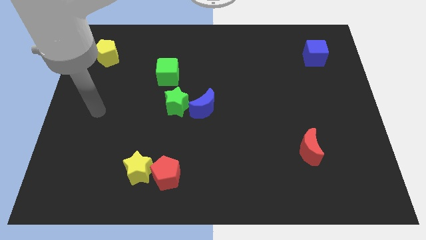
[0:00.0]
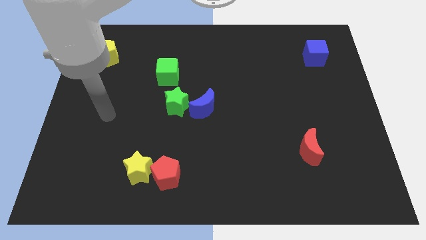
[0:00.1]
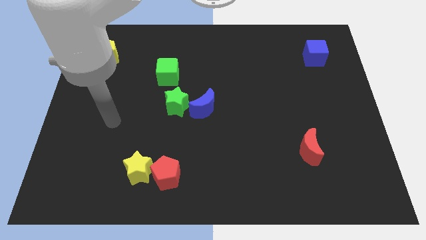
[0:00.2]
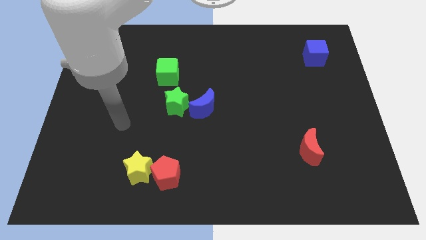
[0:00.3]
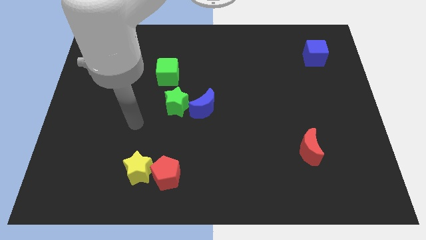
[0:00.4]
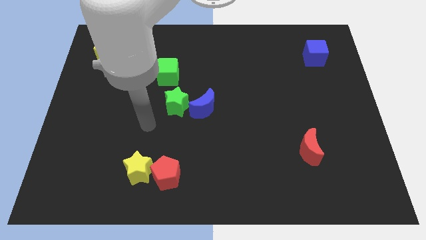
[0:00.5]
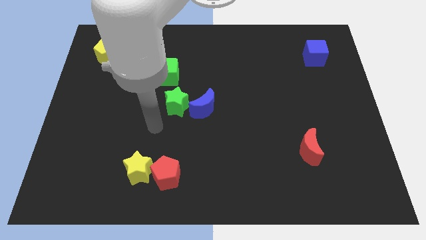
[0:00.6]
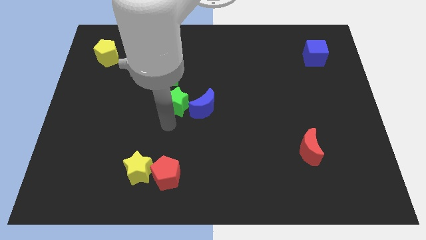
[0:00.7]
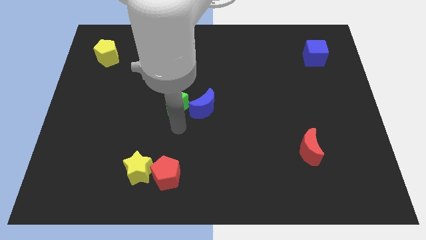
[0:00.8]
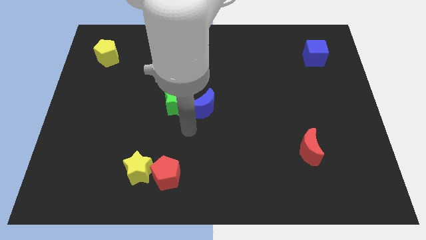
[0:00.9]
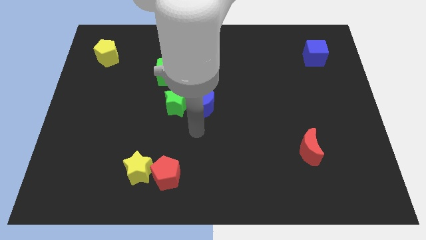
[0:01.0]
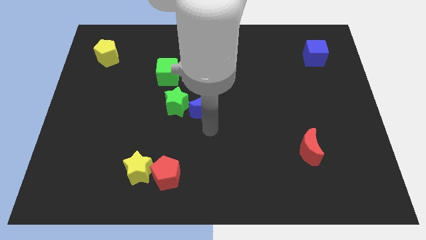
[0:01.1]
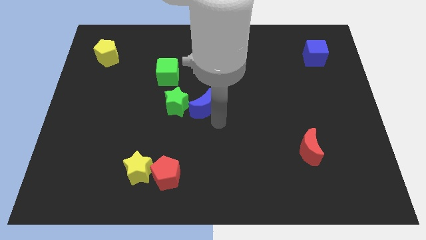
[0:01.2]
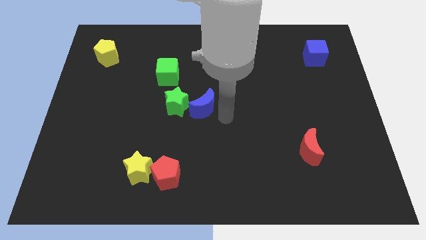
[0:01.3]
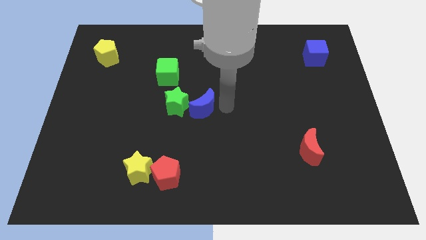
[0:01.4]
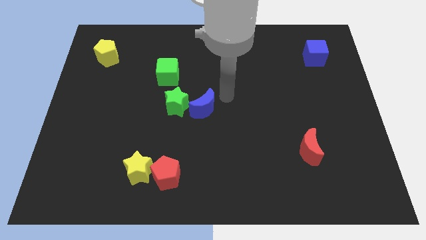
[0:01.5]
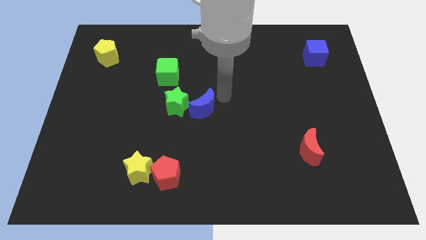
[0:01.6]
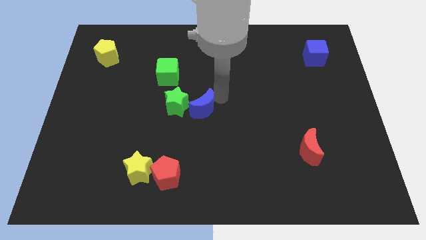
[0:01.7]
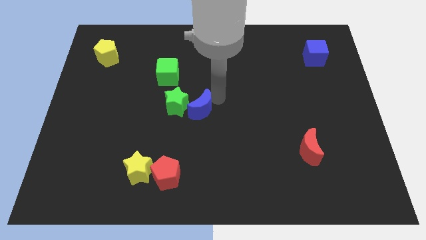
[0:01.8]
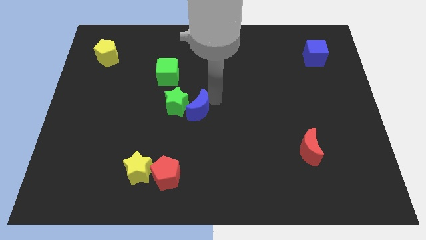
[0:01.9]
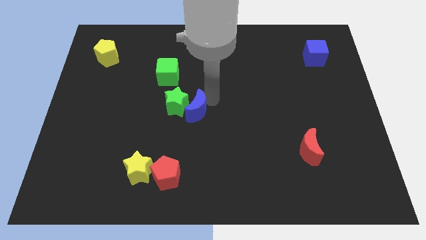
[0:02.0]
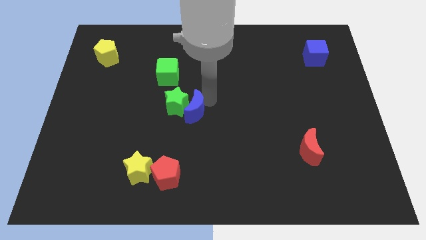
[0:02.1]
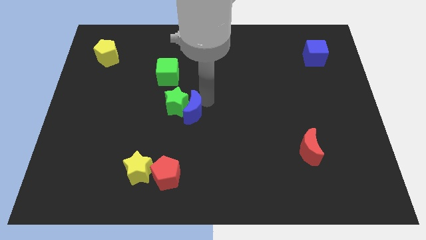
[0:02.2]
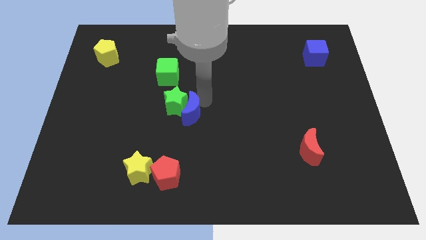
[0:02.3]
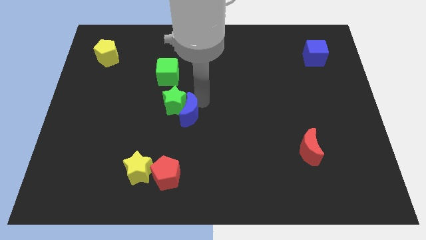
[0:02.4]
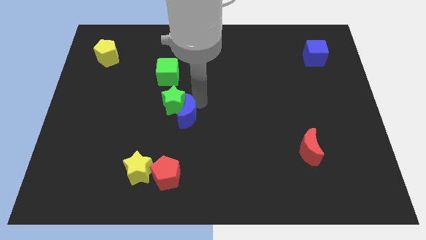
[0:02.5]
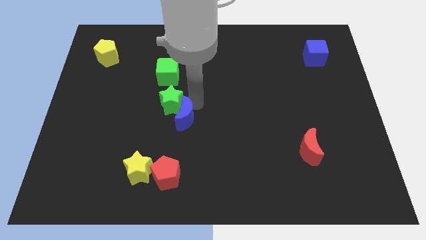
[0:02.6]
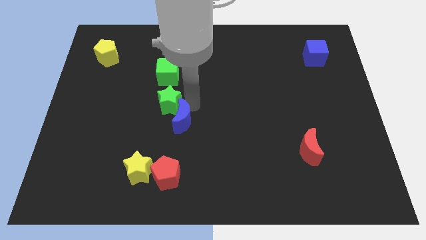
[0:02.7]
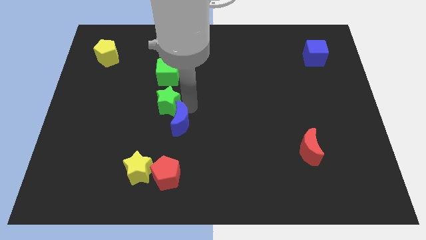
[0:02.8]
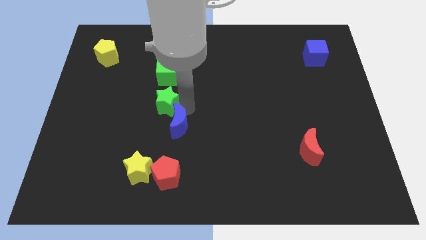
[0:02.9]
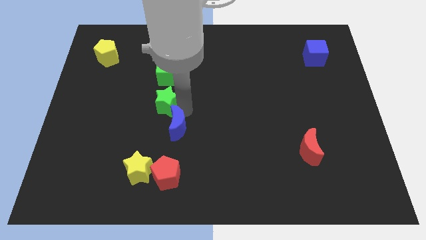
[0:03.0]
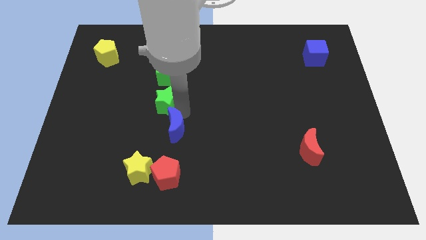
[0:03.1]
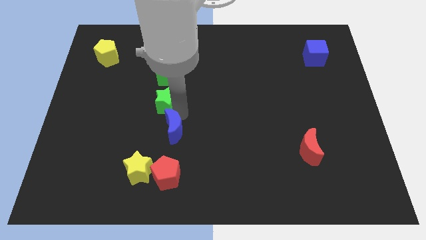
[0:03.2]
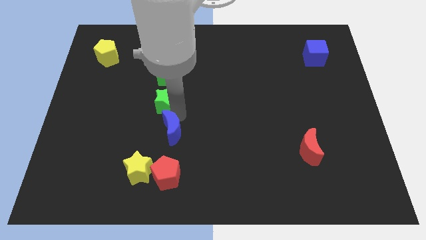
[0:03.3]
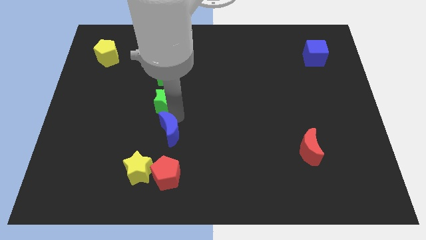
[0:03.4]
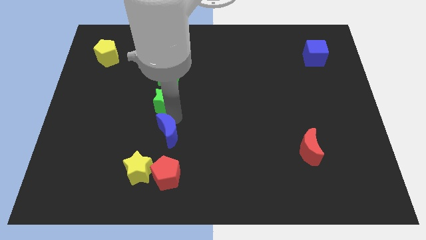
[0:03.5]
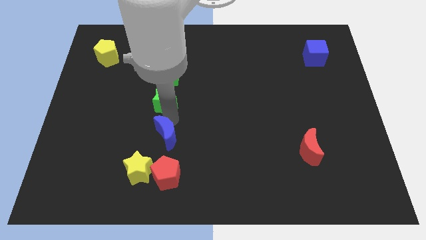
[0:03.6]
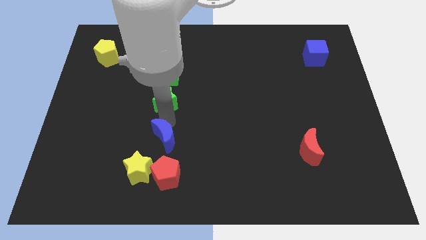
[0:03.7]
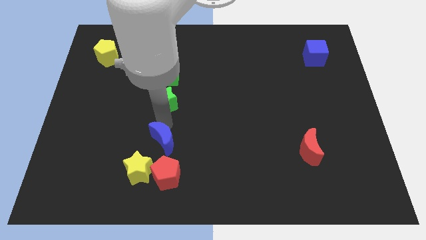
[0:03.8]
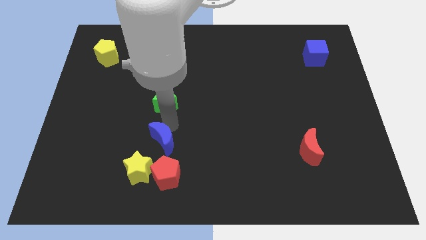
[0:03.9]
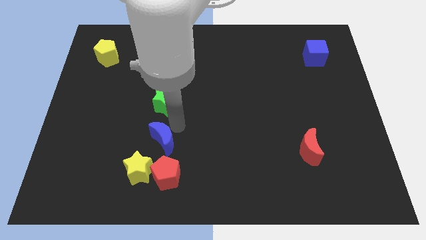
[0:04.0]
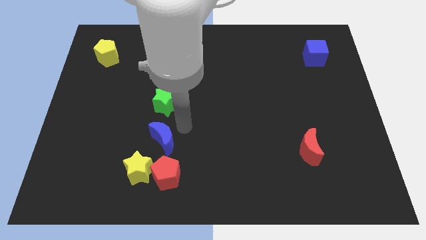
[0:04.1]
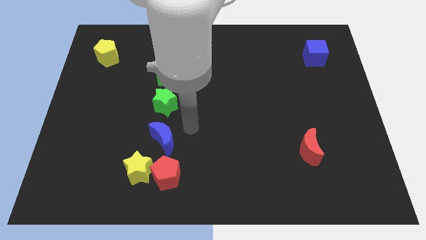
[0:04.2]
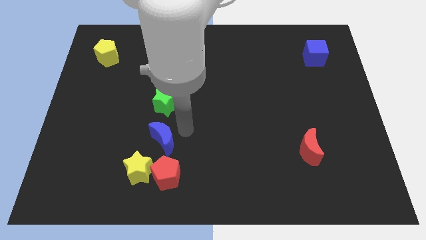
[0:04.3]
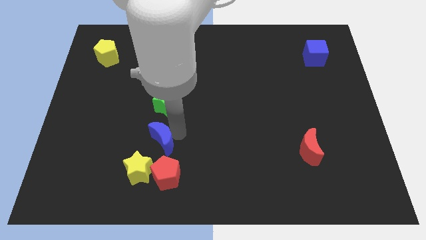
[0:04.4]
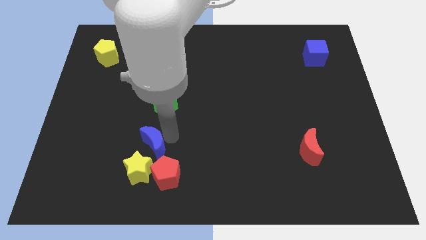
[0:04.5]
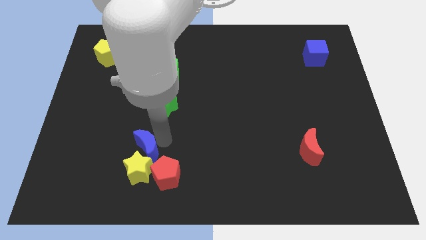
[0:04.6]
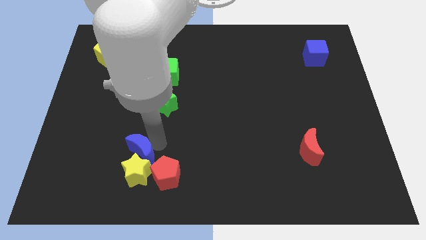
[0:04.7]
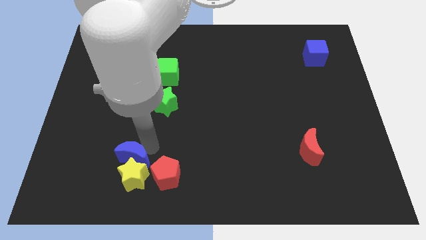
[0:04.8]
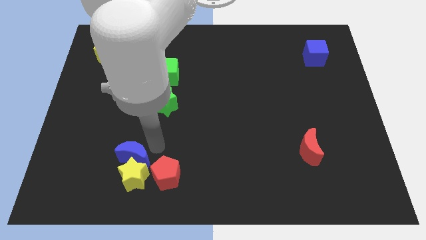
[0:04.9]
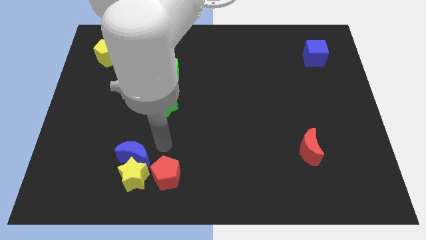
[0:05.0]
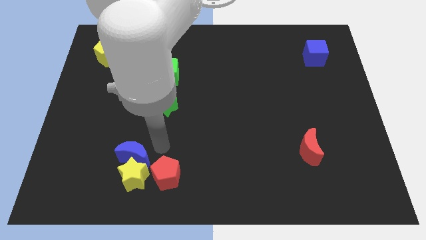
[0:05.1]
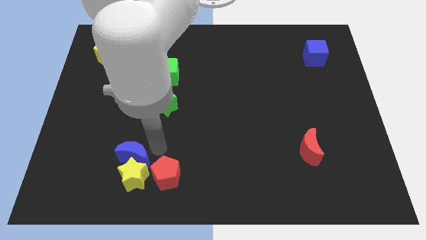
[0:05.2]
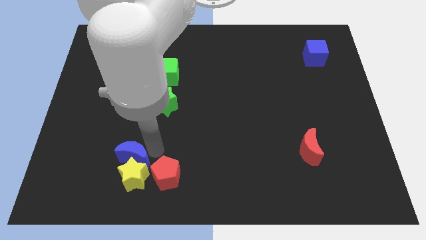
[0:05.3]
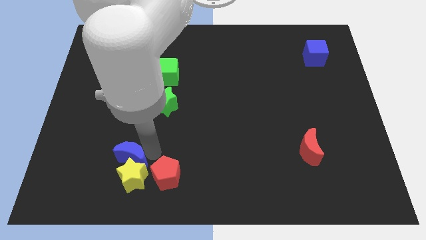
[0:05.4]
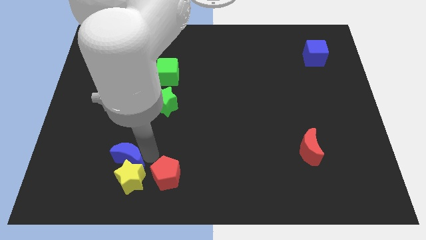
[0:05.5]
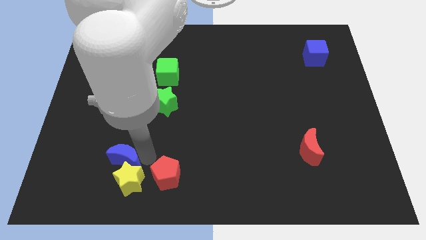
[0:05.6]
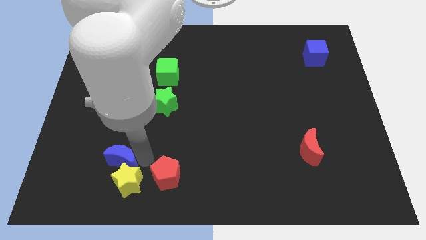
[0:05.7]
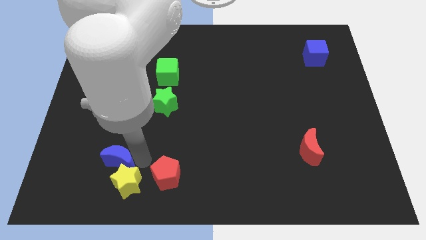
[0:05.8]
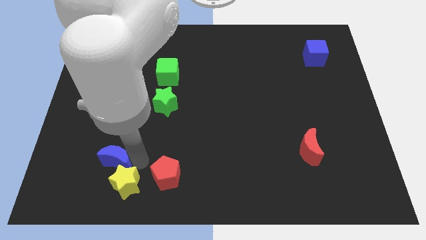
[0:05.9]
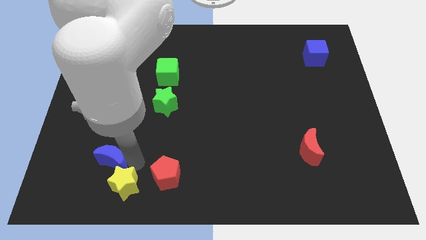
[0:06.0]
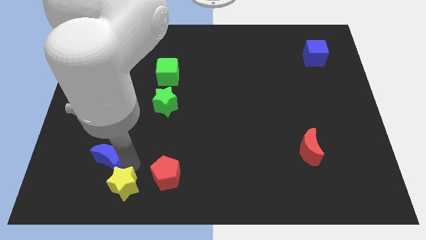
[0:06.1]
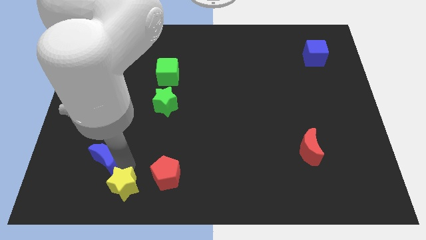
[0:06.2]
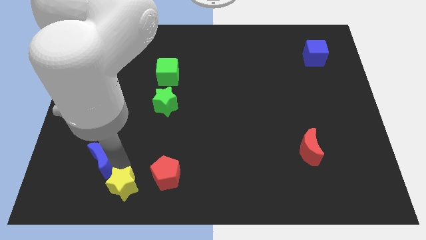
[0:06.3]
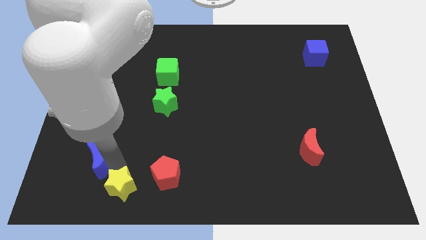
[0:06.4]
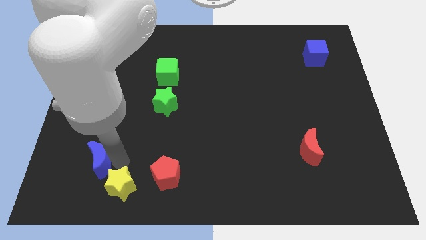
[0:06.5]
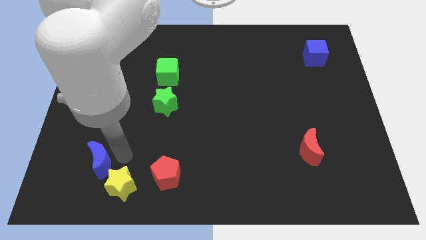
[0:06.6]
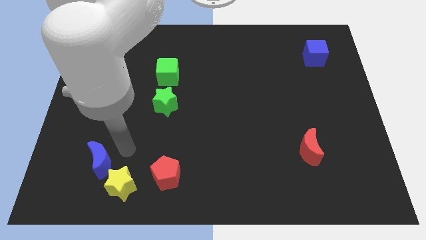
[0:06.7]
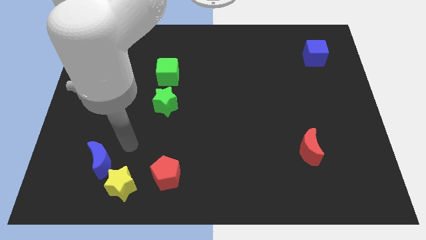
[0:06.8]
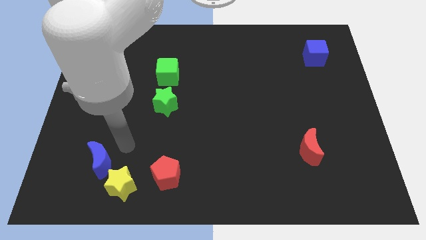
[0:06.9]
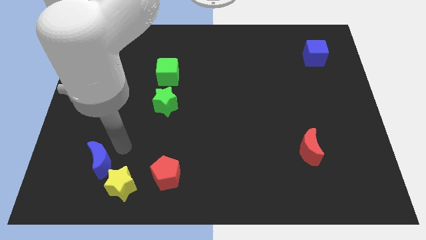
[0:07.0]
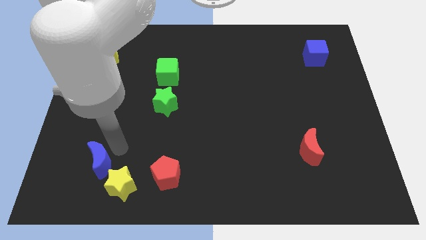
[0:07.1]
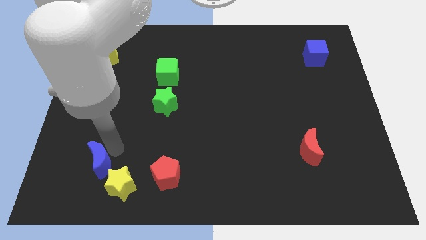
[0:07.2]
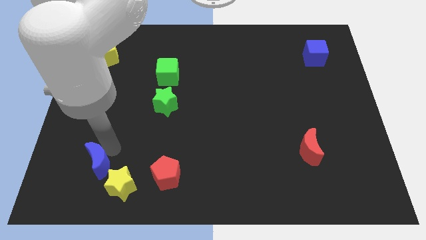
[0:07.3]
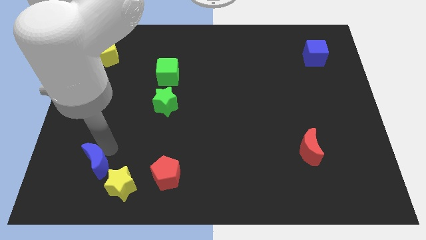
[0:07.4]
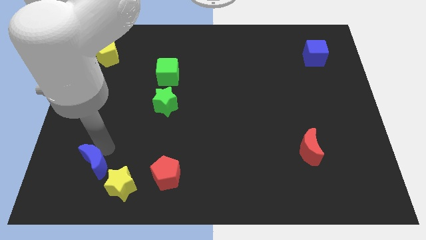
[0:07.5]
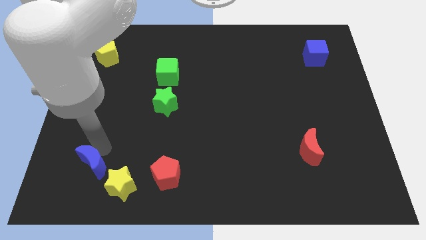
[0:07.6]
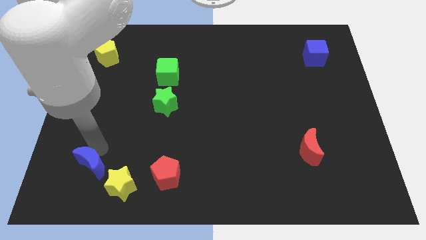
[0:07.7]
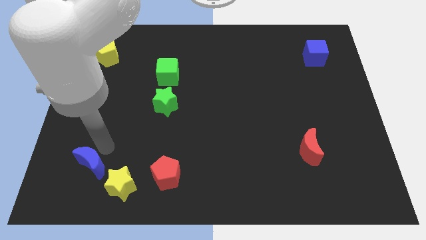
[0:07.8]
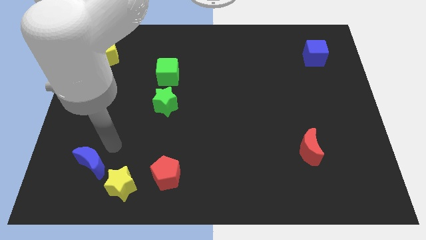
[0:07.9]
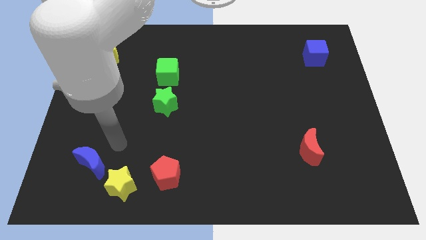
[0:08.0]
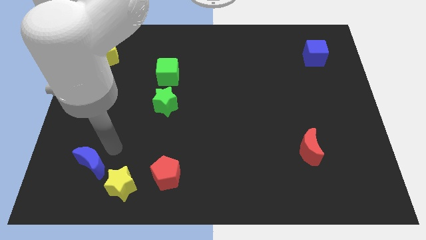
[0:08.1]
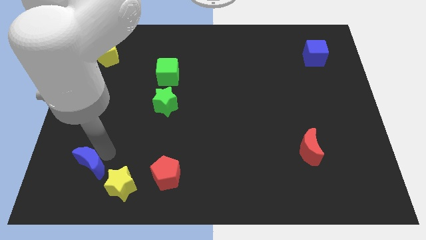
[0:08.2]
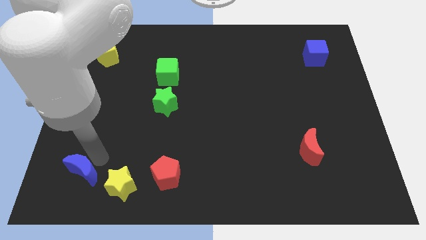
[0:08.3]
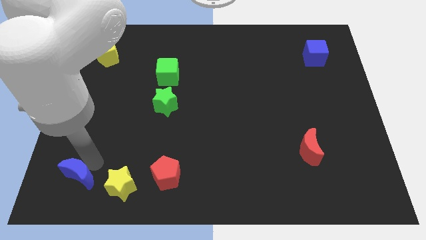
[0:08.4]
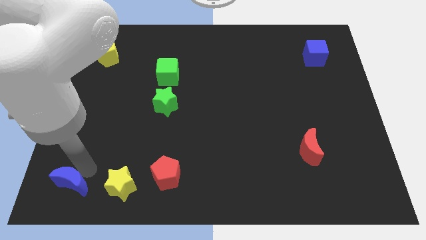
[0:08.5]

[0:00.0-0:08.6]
push the blue moon to the bottom left corner
